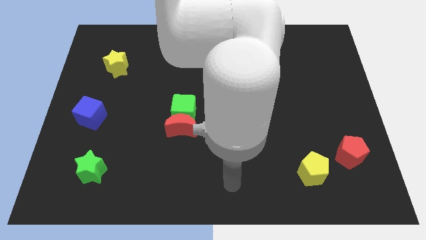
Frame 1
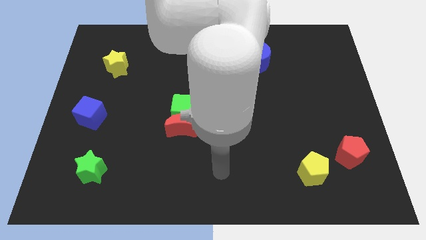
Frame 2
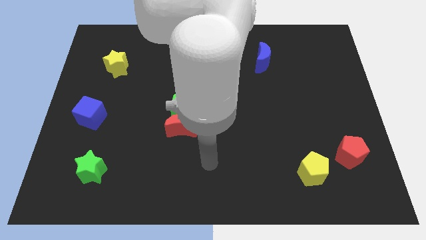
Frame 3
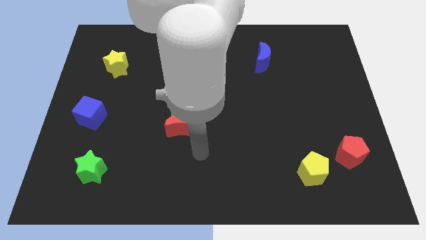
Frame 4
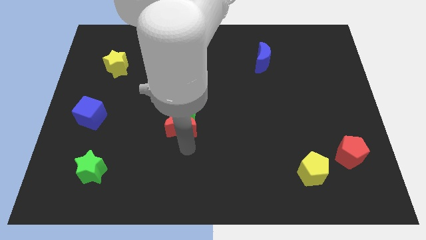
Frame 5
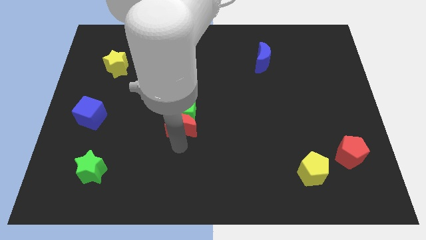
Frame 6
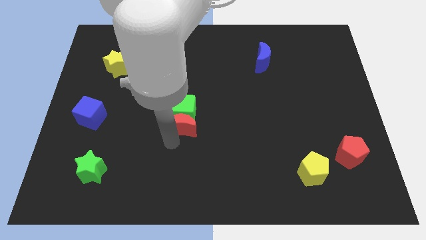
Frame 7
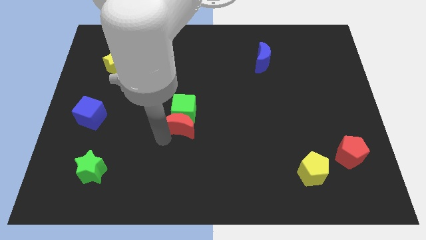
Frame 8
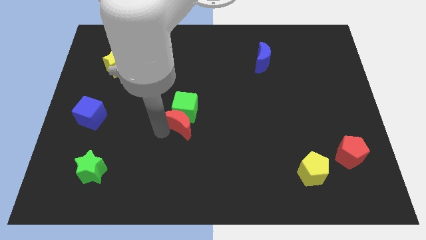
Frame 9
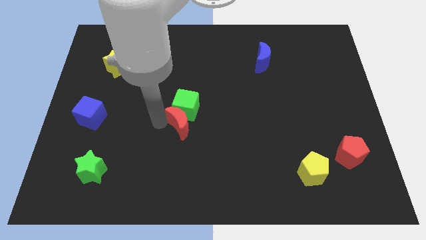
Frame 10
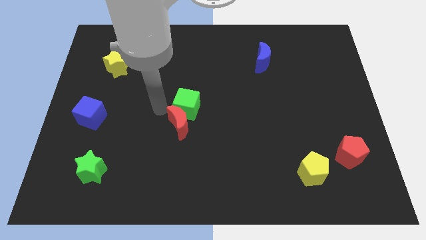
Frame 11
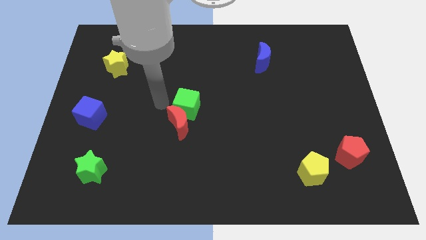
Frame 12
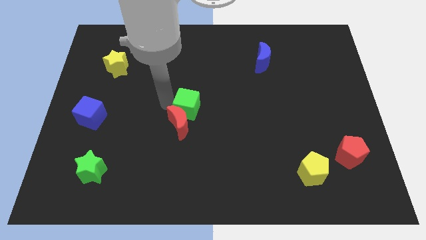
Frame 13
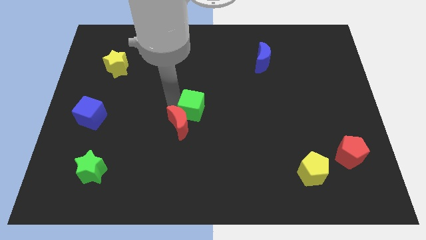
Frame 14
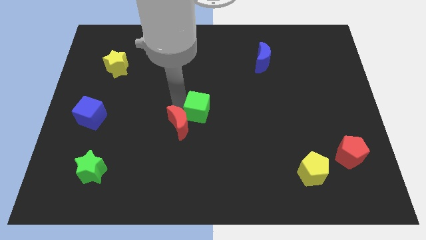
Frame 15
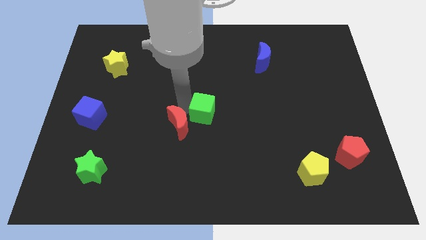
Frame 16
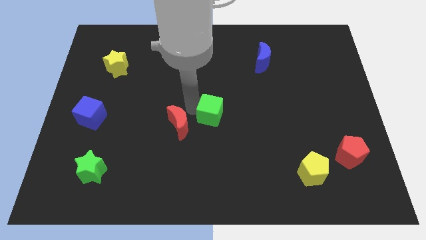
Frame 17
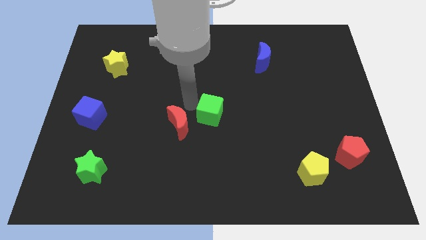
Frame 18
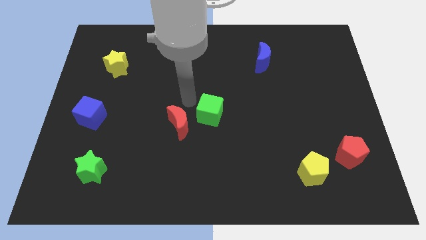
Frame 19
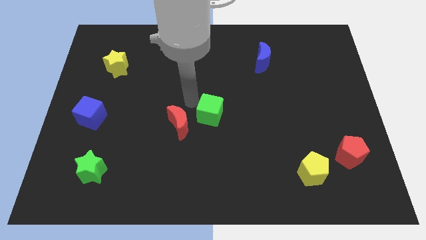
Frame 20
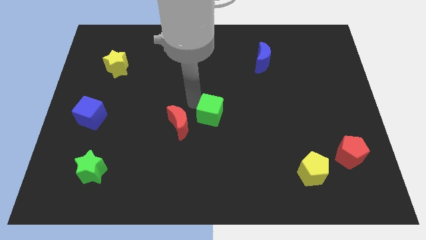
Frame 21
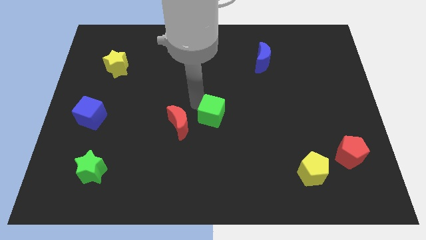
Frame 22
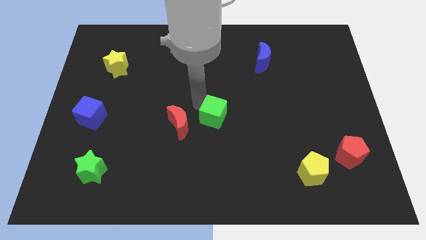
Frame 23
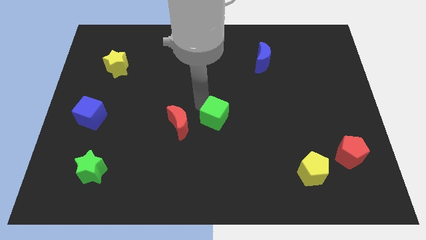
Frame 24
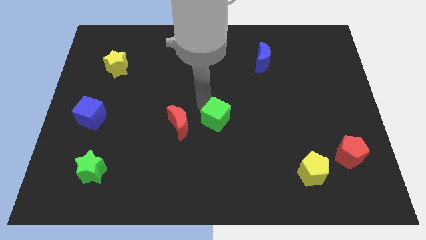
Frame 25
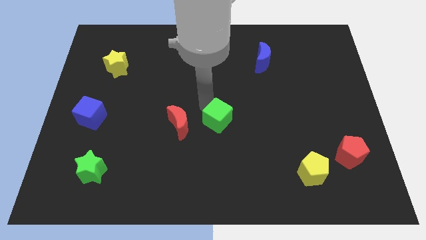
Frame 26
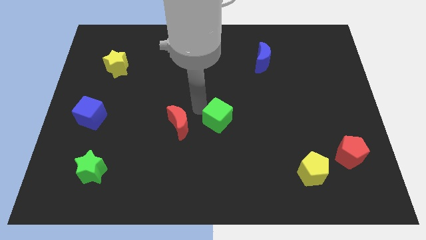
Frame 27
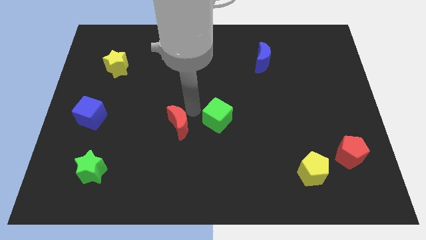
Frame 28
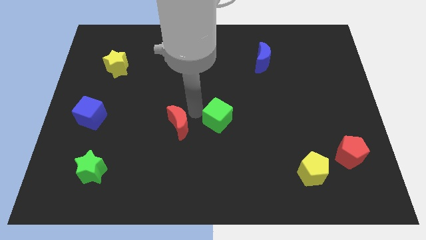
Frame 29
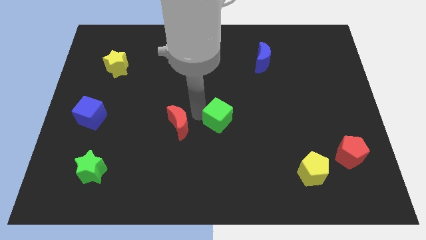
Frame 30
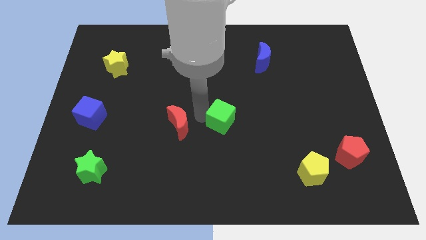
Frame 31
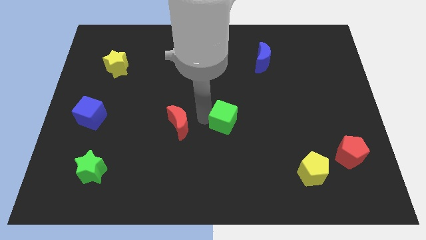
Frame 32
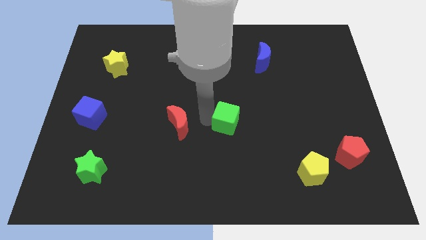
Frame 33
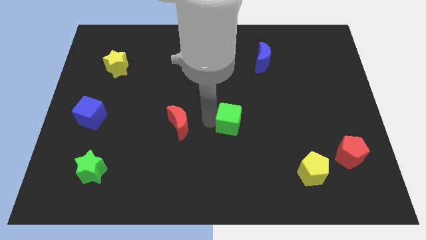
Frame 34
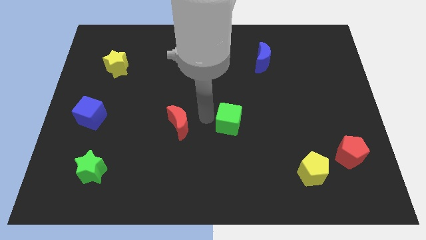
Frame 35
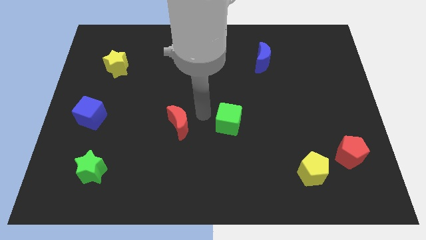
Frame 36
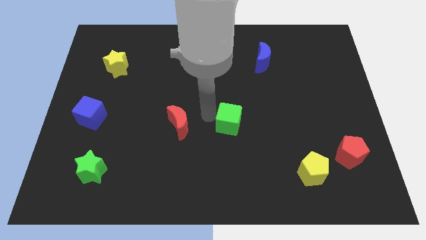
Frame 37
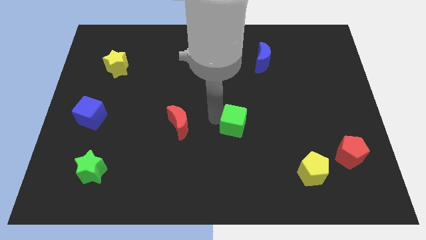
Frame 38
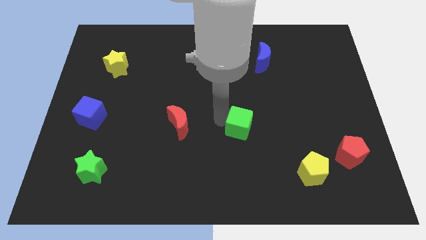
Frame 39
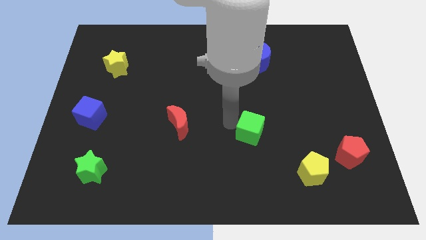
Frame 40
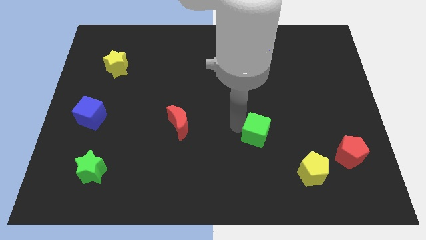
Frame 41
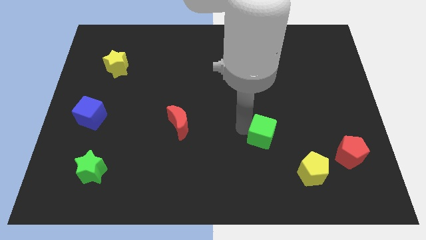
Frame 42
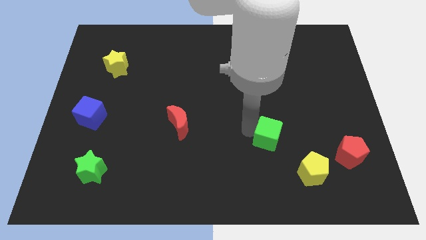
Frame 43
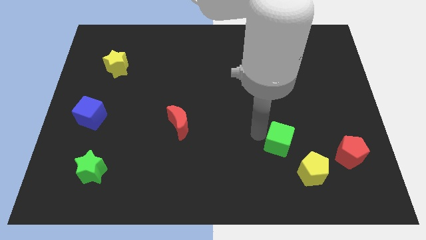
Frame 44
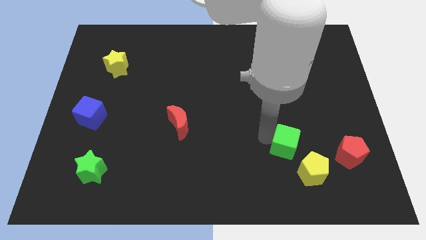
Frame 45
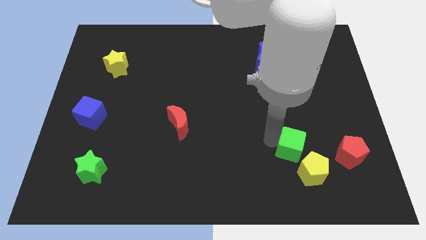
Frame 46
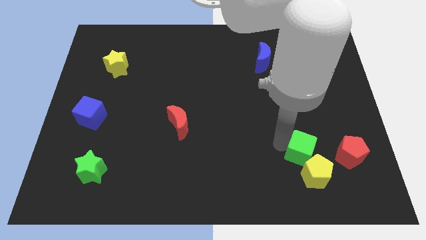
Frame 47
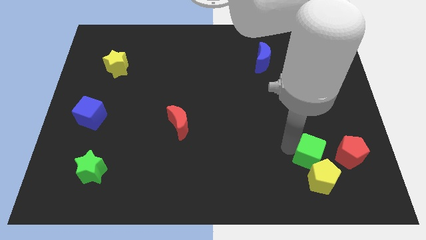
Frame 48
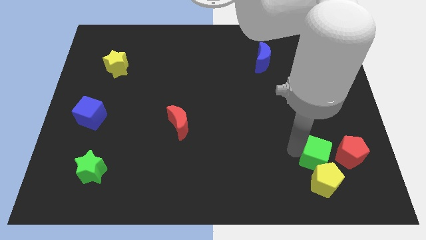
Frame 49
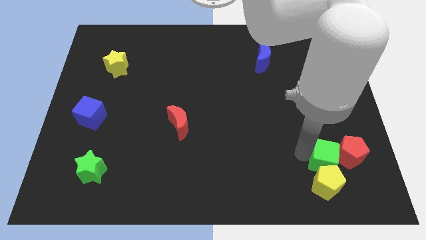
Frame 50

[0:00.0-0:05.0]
move the green cube next to the red pentagon

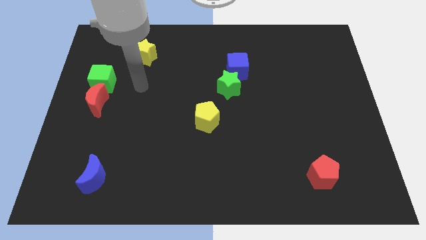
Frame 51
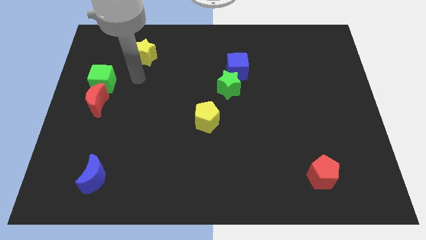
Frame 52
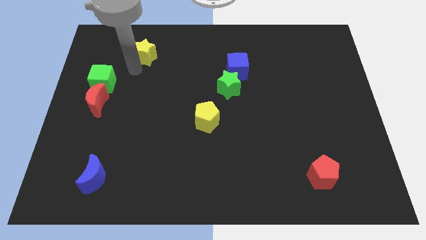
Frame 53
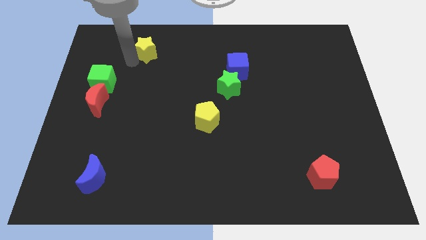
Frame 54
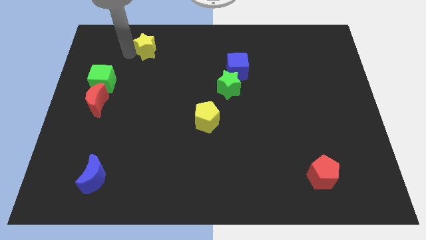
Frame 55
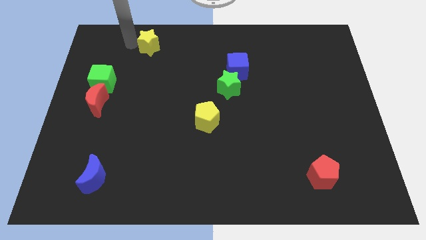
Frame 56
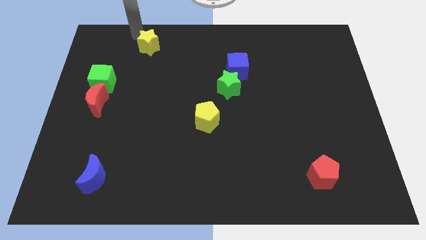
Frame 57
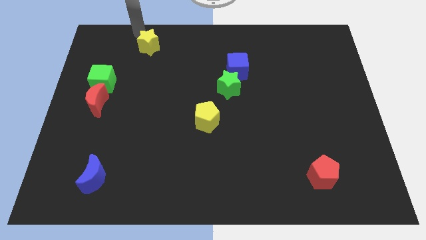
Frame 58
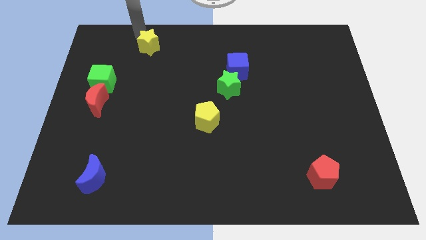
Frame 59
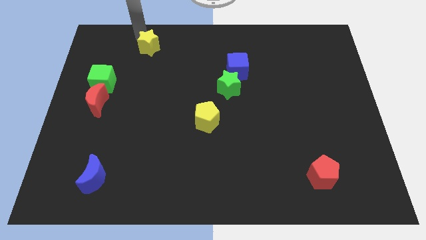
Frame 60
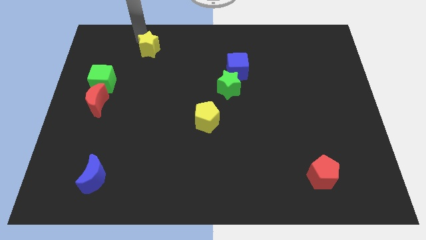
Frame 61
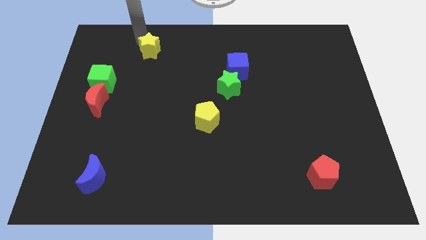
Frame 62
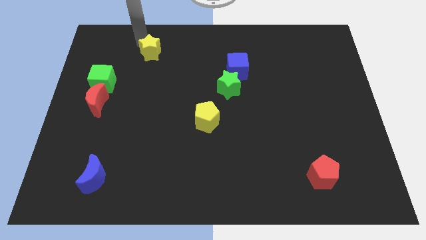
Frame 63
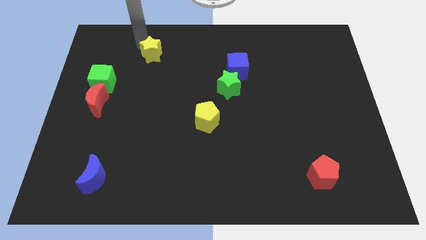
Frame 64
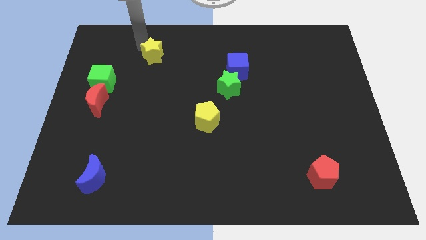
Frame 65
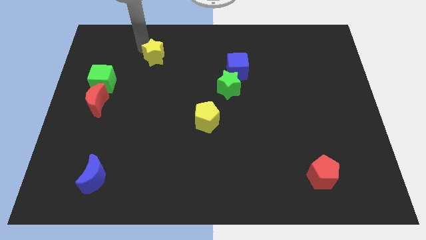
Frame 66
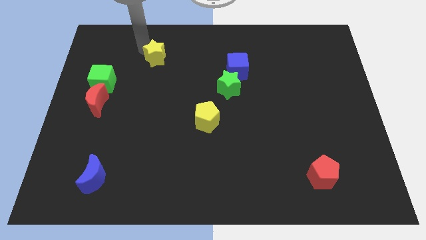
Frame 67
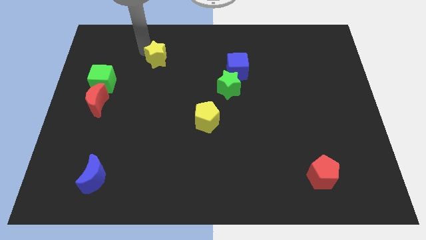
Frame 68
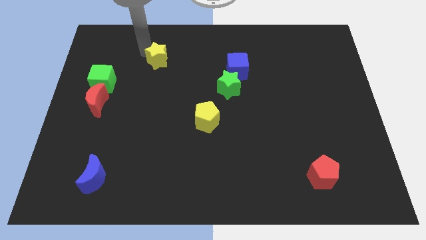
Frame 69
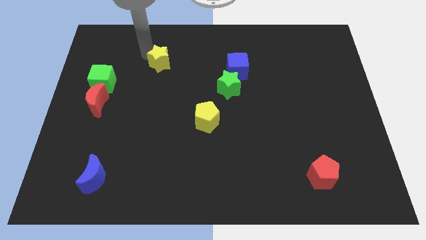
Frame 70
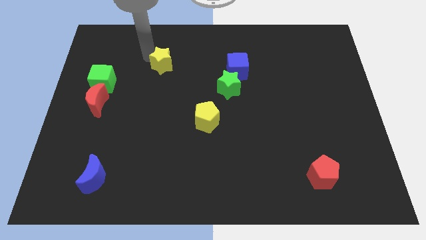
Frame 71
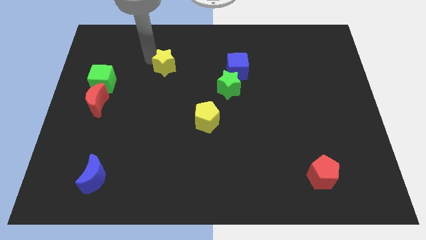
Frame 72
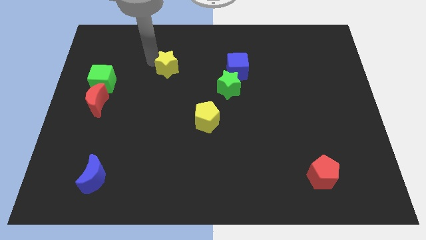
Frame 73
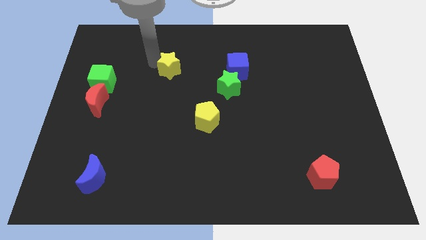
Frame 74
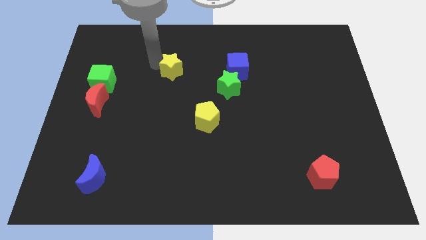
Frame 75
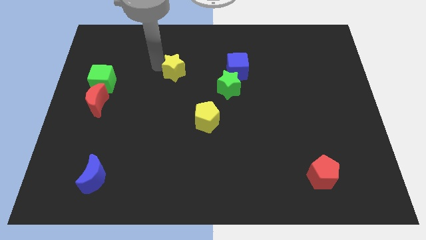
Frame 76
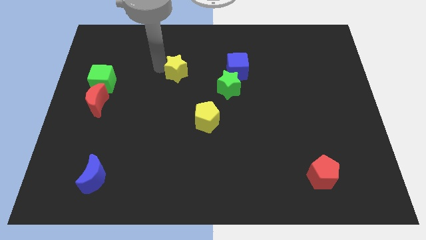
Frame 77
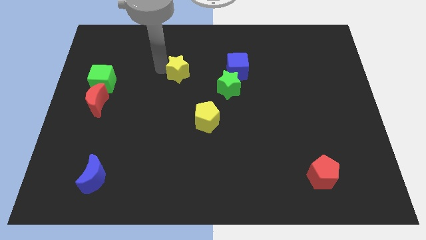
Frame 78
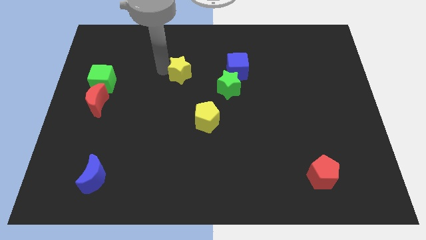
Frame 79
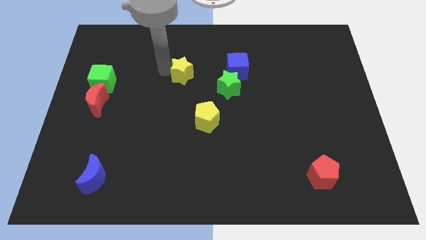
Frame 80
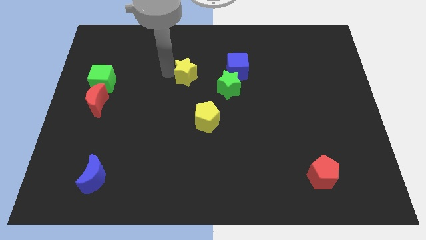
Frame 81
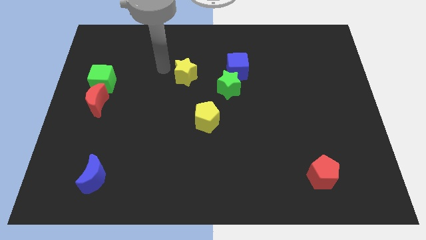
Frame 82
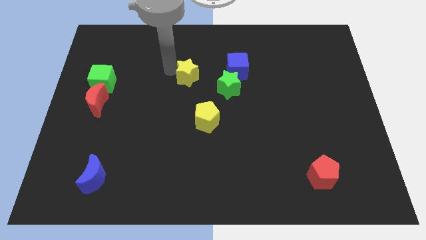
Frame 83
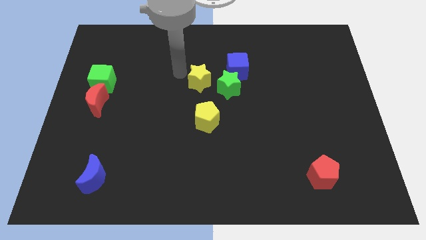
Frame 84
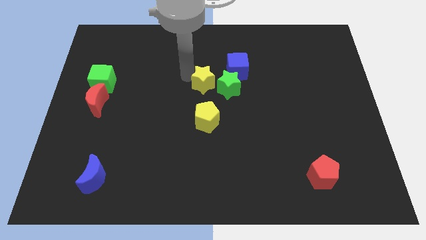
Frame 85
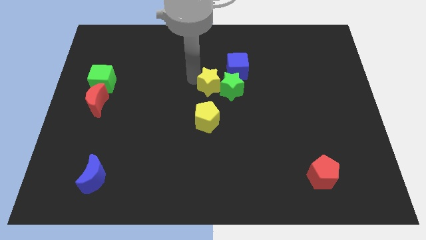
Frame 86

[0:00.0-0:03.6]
slide the yellow star to the green star
